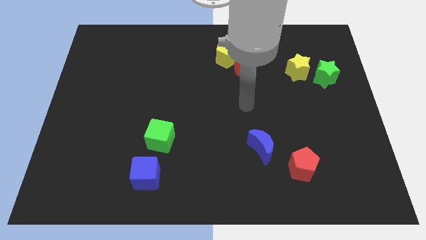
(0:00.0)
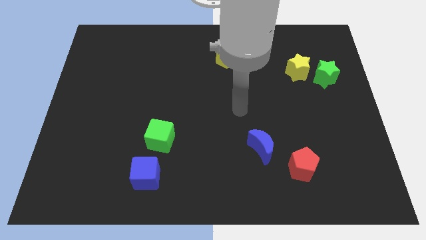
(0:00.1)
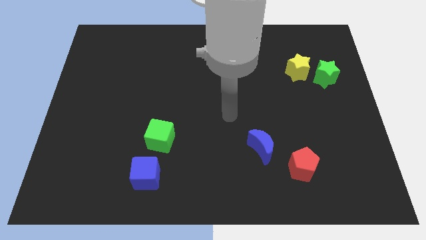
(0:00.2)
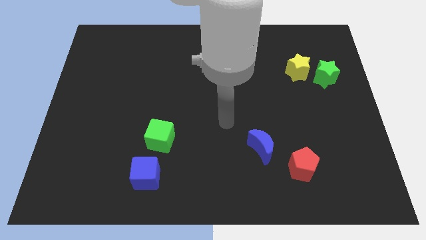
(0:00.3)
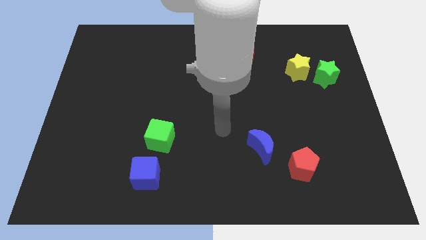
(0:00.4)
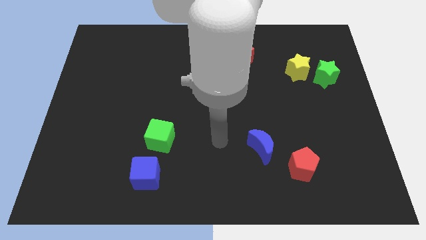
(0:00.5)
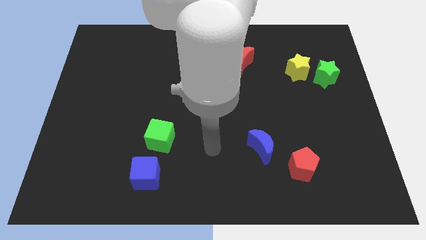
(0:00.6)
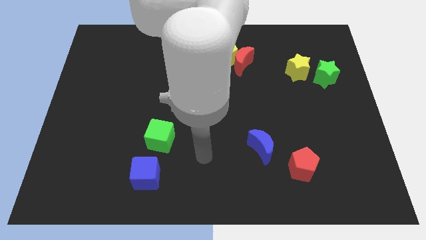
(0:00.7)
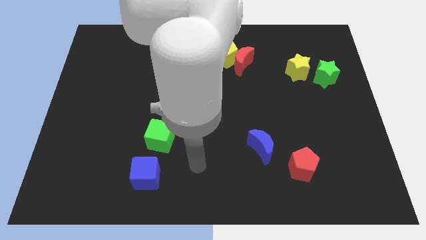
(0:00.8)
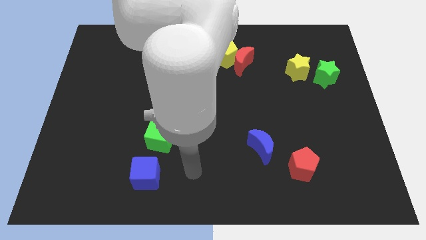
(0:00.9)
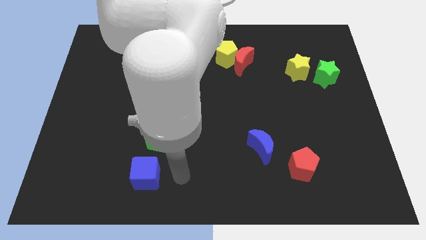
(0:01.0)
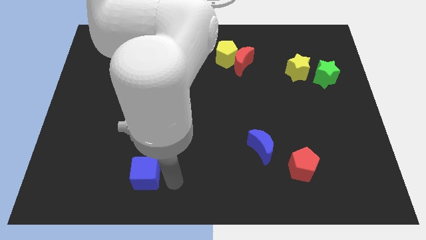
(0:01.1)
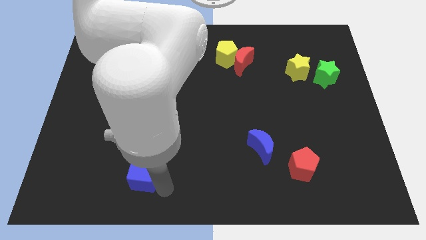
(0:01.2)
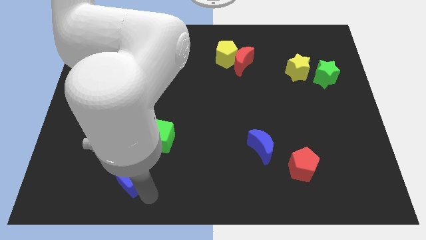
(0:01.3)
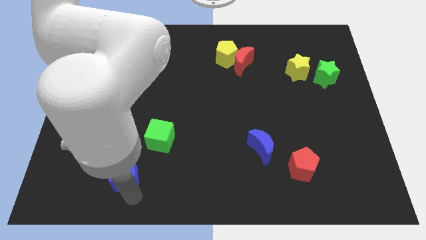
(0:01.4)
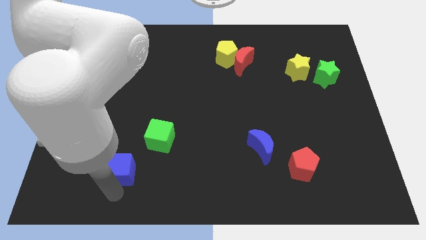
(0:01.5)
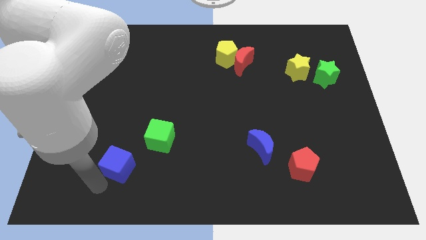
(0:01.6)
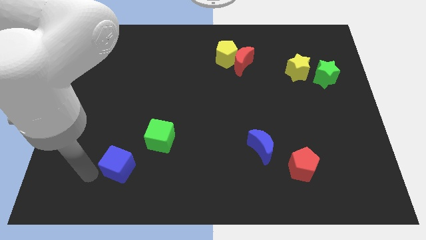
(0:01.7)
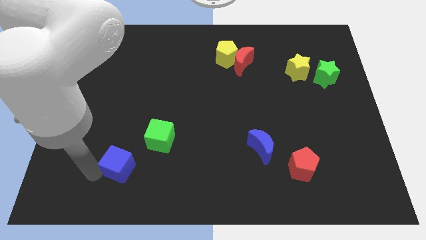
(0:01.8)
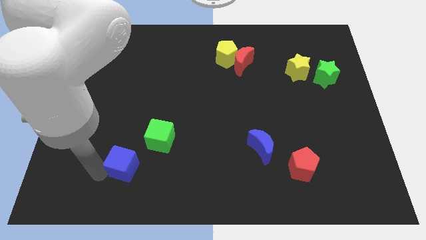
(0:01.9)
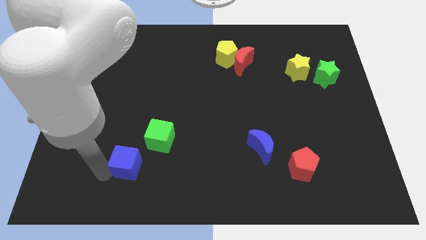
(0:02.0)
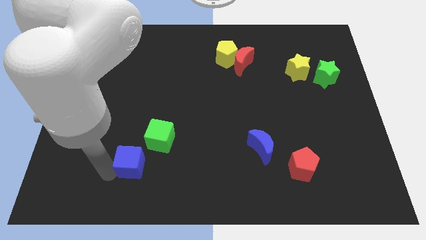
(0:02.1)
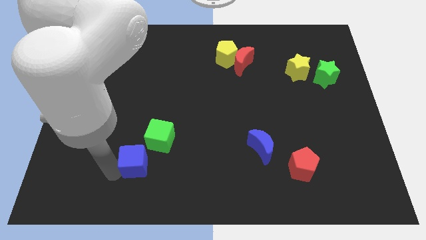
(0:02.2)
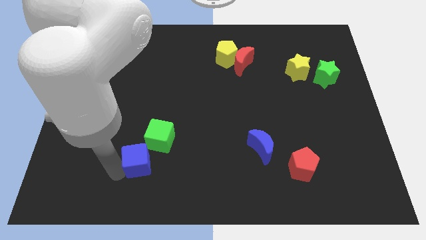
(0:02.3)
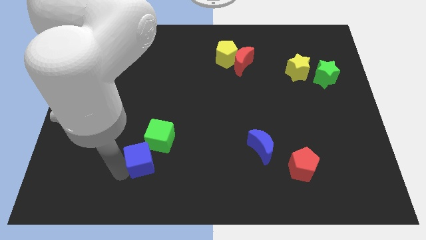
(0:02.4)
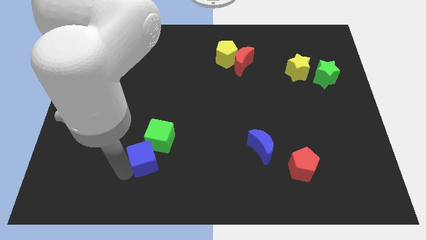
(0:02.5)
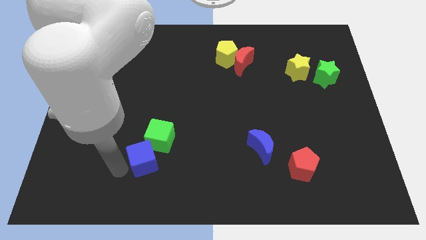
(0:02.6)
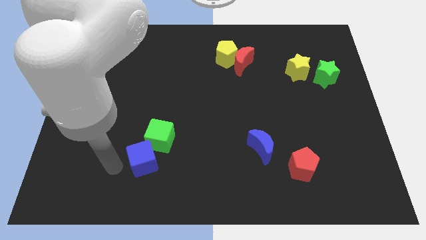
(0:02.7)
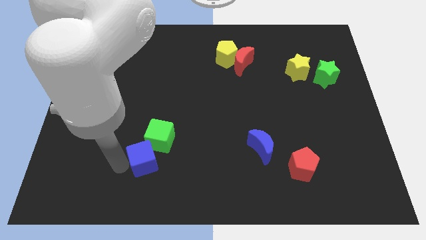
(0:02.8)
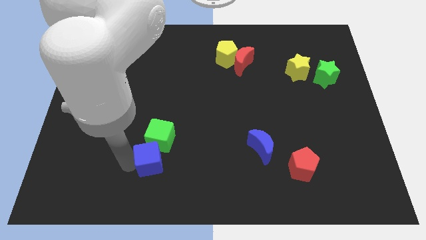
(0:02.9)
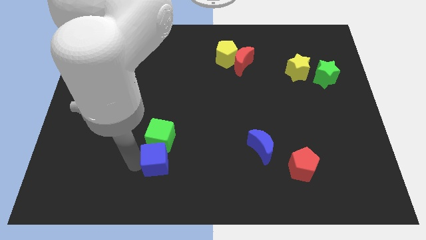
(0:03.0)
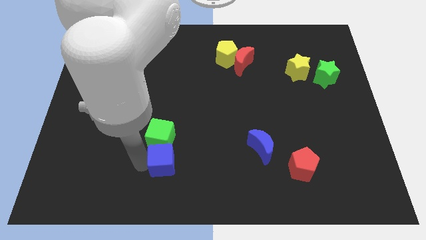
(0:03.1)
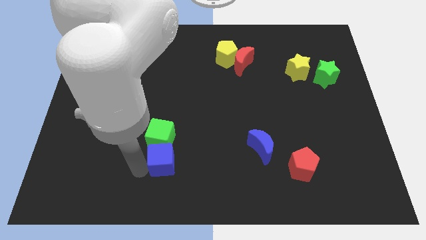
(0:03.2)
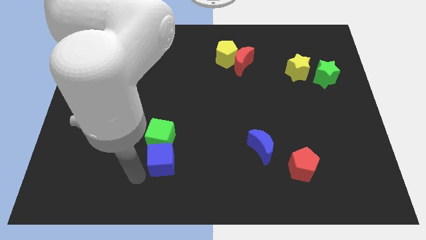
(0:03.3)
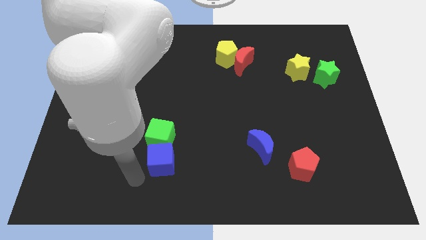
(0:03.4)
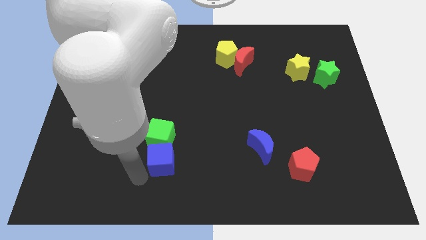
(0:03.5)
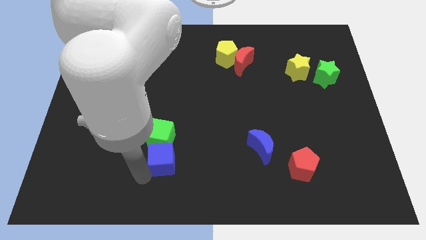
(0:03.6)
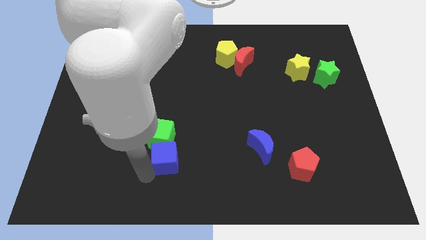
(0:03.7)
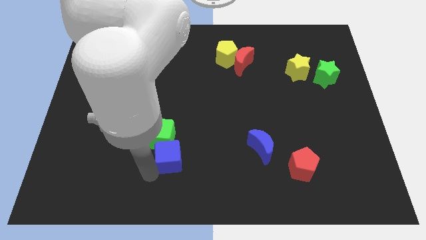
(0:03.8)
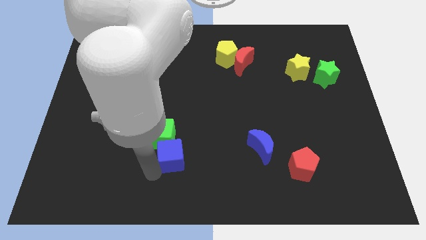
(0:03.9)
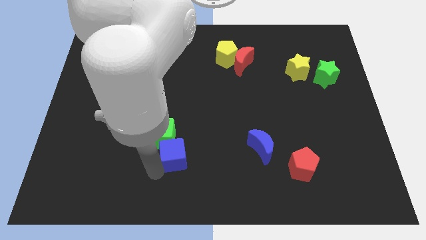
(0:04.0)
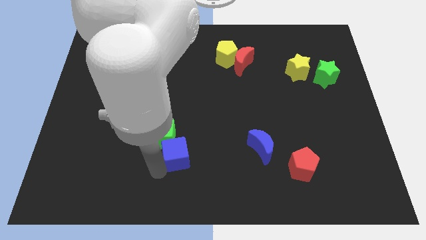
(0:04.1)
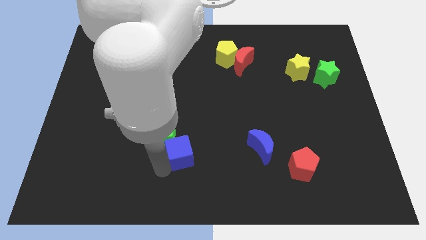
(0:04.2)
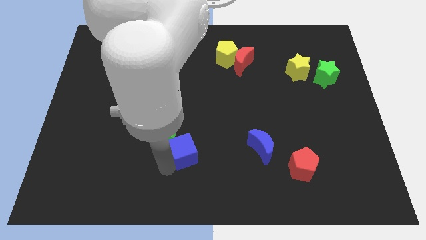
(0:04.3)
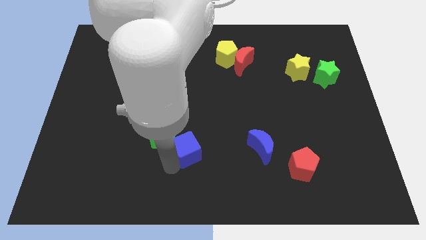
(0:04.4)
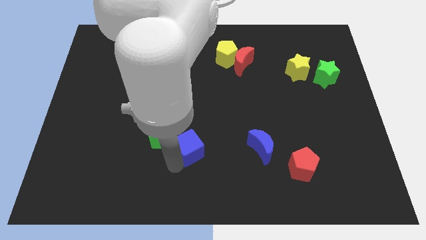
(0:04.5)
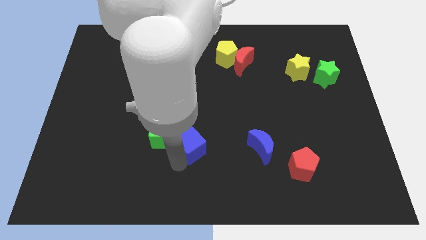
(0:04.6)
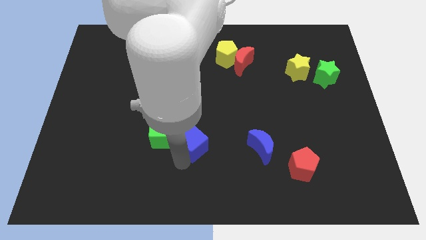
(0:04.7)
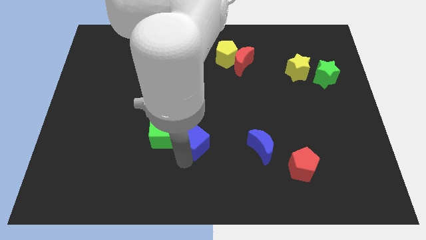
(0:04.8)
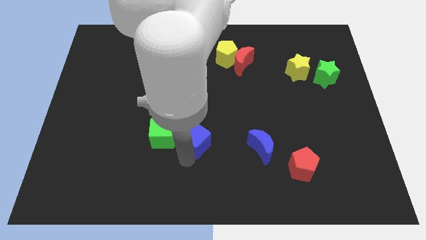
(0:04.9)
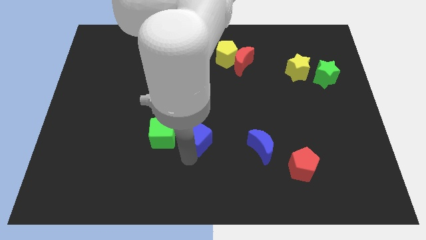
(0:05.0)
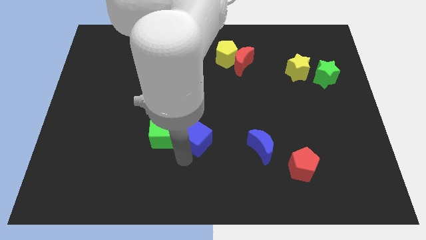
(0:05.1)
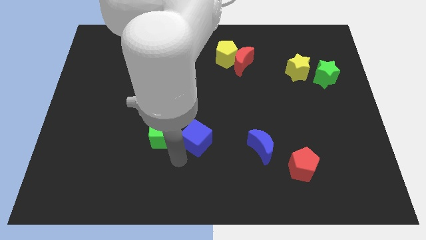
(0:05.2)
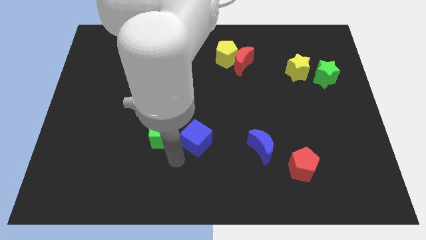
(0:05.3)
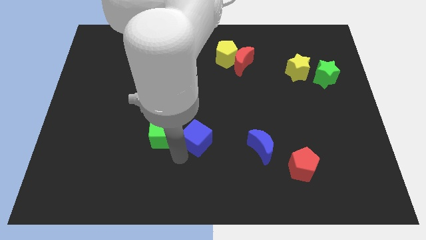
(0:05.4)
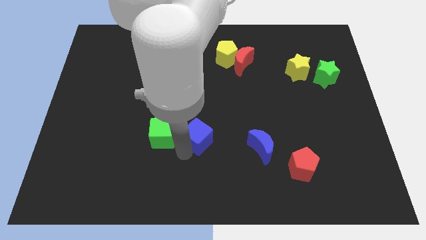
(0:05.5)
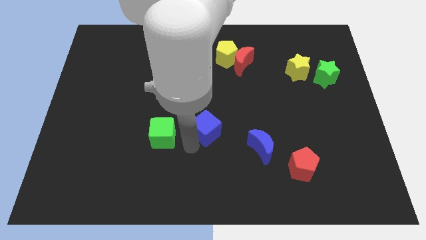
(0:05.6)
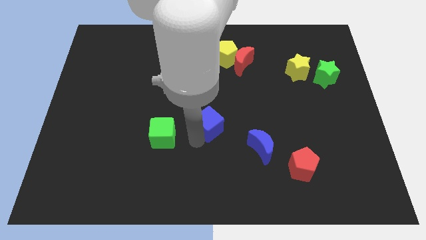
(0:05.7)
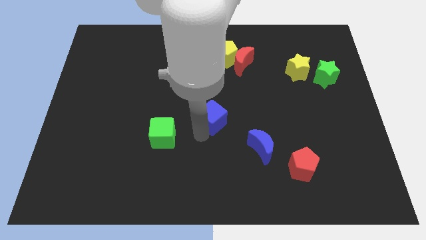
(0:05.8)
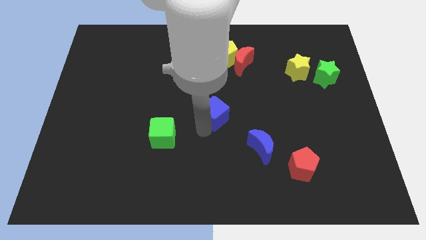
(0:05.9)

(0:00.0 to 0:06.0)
push the blue cube upwards and to the right diagonally

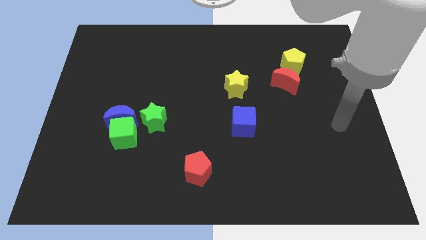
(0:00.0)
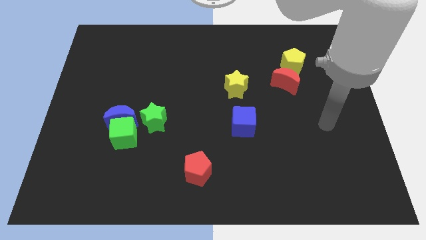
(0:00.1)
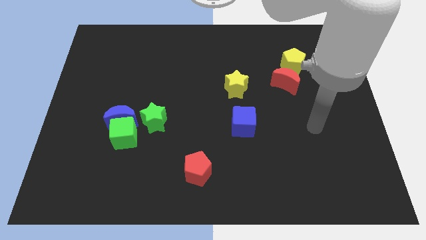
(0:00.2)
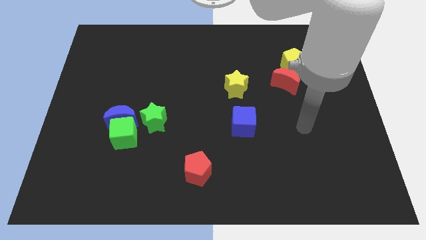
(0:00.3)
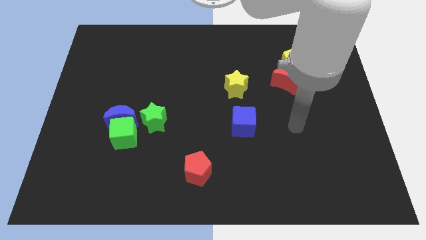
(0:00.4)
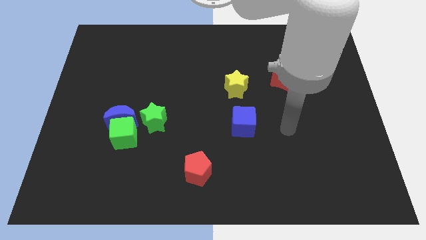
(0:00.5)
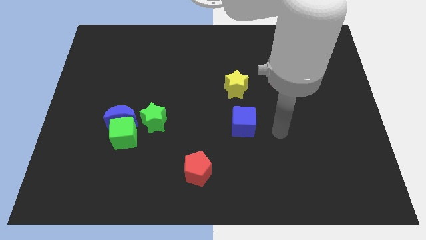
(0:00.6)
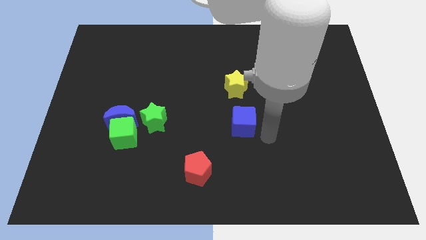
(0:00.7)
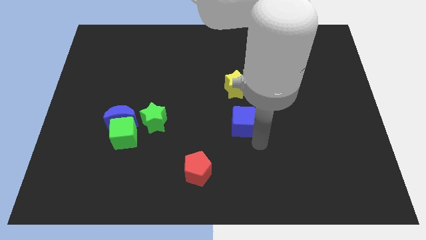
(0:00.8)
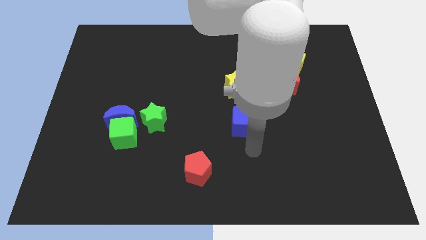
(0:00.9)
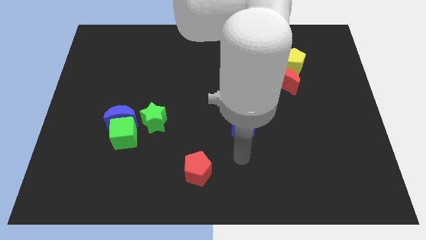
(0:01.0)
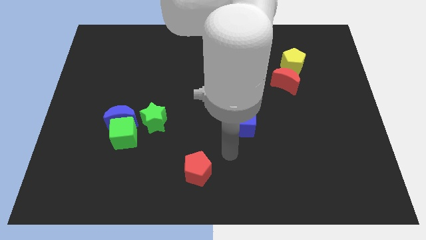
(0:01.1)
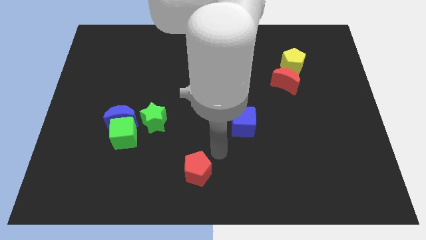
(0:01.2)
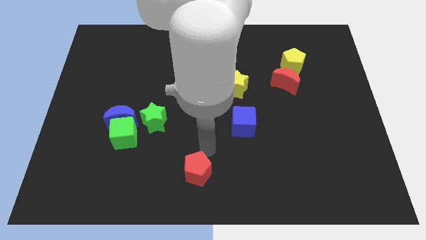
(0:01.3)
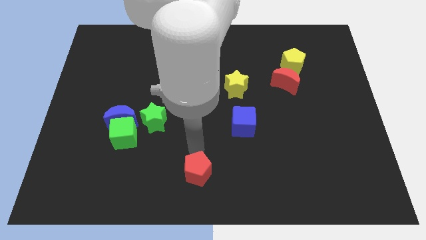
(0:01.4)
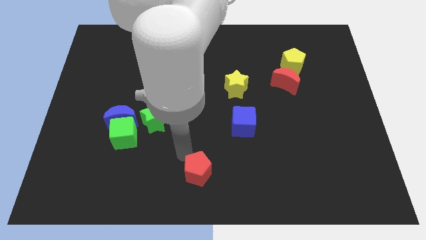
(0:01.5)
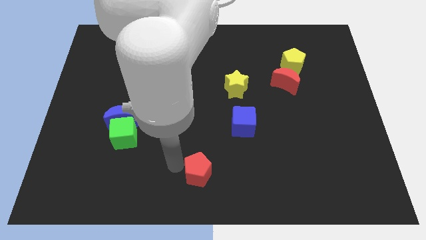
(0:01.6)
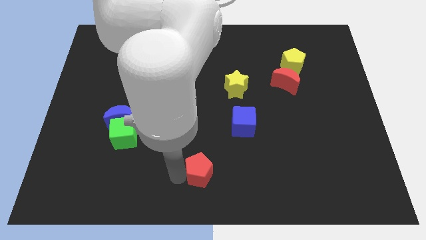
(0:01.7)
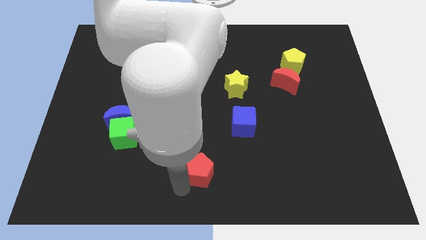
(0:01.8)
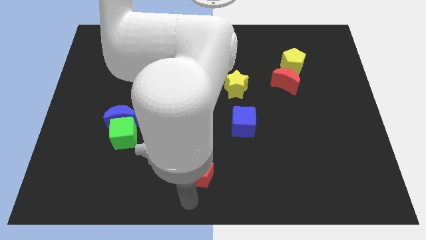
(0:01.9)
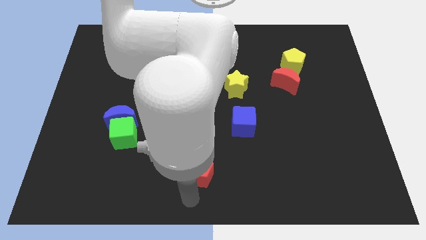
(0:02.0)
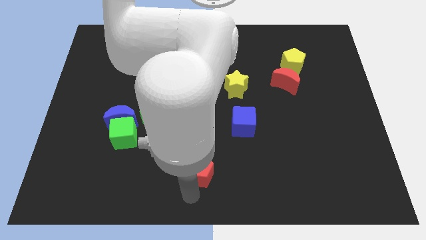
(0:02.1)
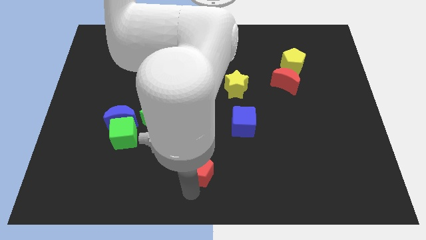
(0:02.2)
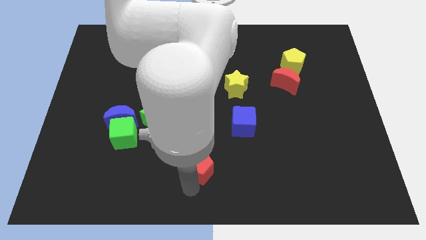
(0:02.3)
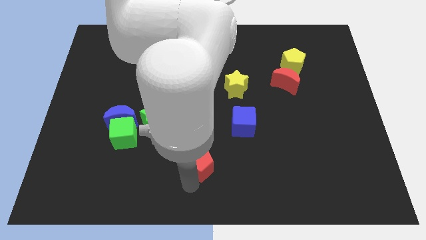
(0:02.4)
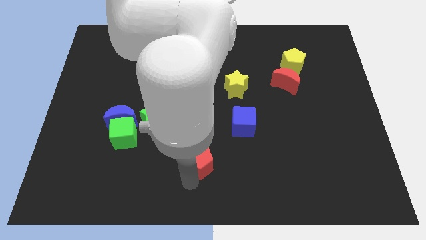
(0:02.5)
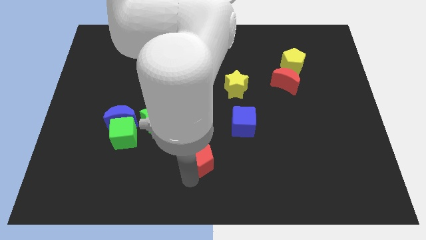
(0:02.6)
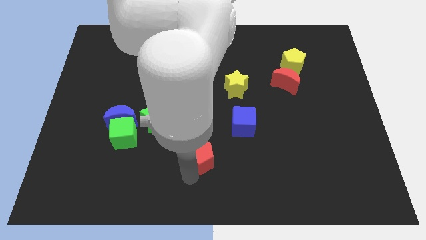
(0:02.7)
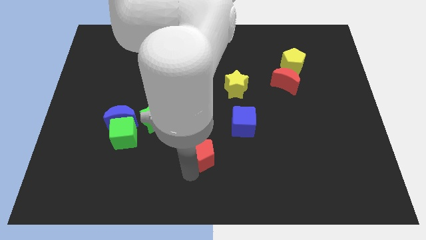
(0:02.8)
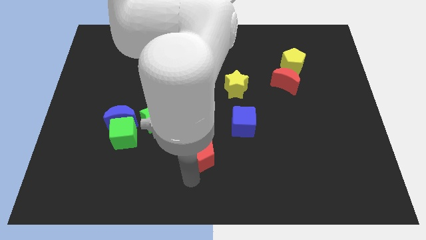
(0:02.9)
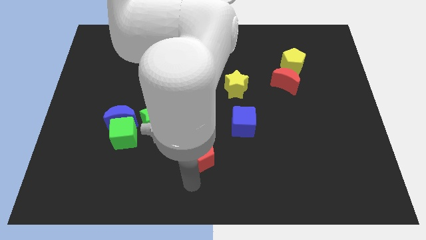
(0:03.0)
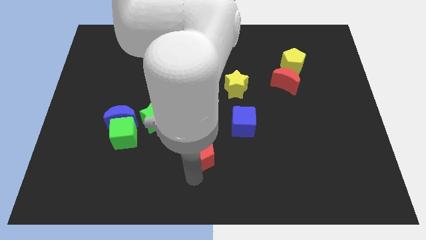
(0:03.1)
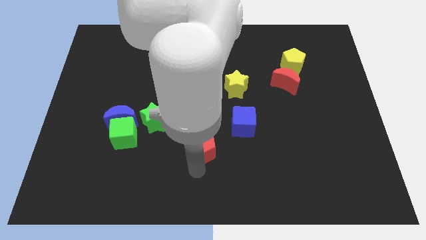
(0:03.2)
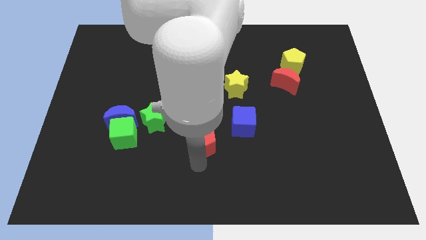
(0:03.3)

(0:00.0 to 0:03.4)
push the red pentagon a little up
